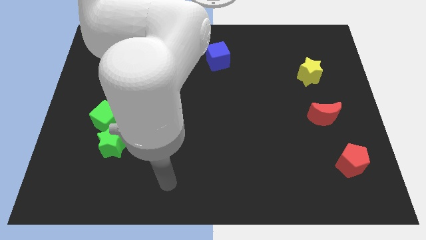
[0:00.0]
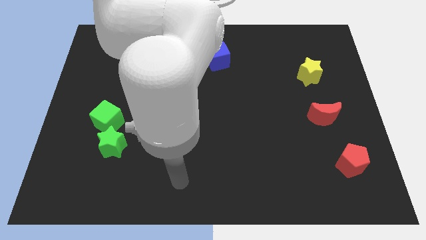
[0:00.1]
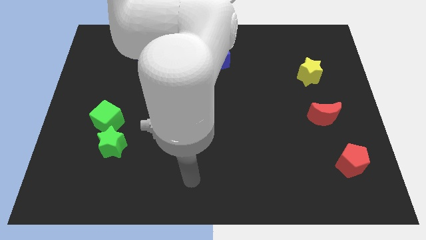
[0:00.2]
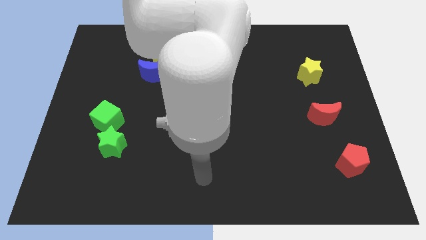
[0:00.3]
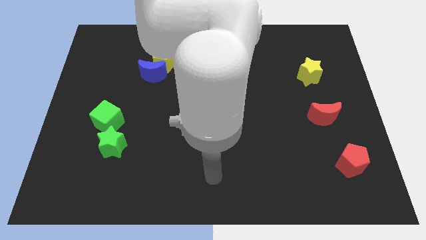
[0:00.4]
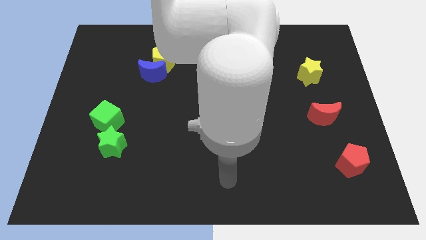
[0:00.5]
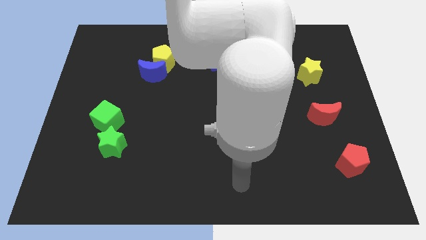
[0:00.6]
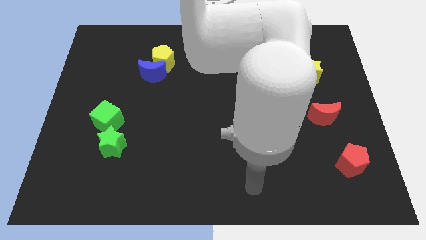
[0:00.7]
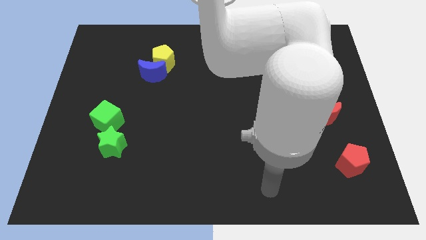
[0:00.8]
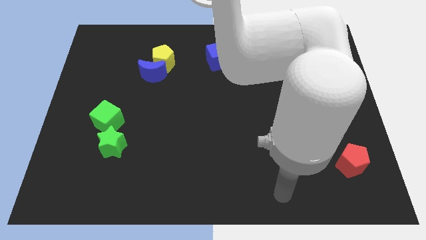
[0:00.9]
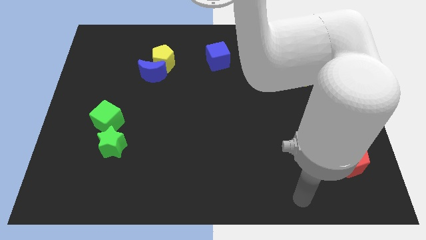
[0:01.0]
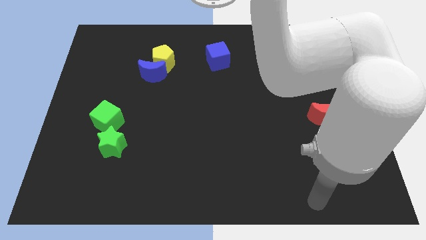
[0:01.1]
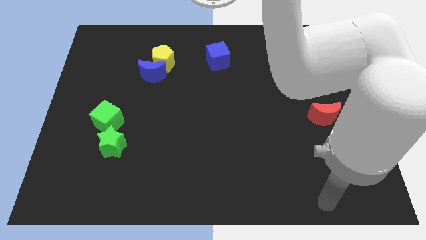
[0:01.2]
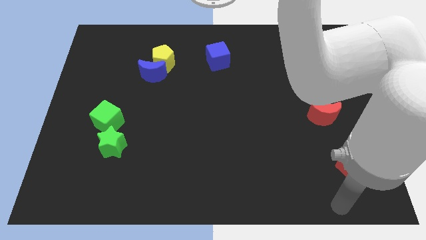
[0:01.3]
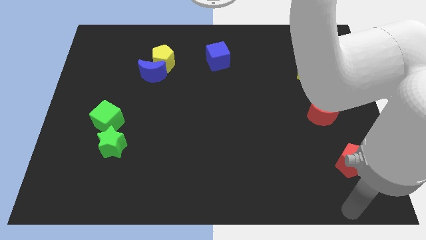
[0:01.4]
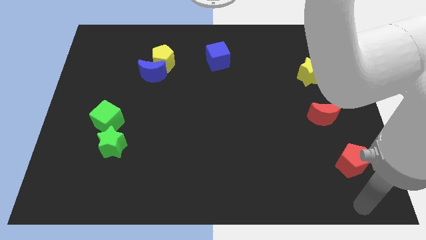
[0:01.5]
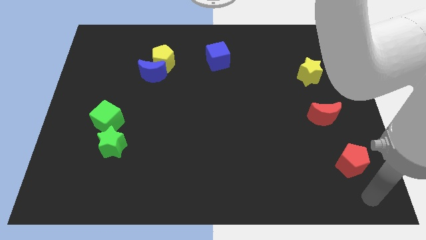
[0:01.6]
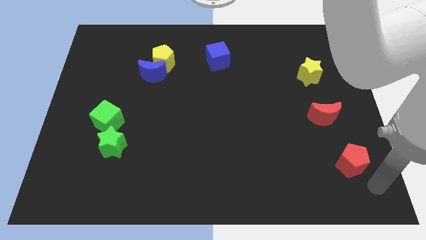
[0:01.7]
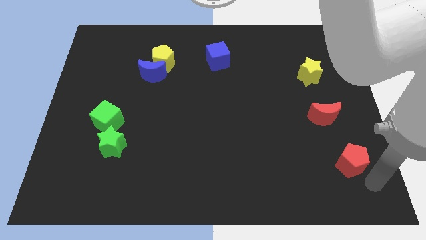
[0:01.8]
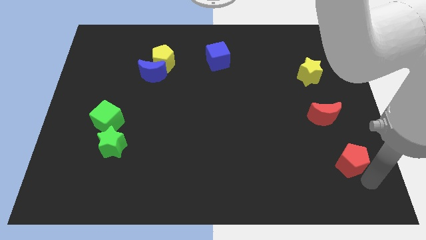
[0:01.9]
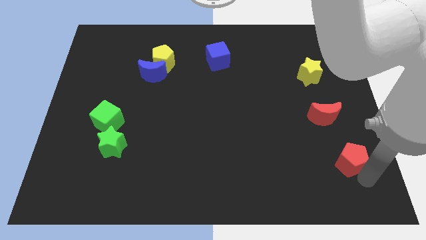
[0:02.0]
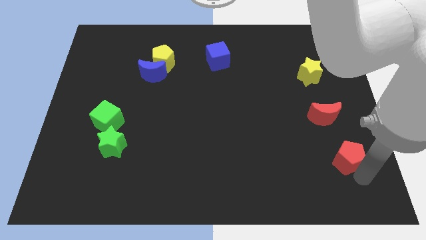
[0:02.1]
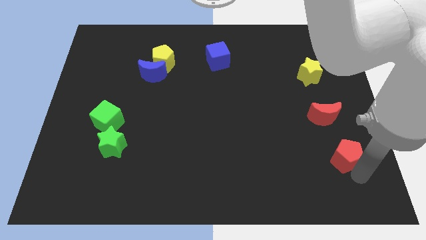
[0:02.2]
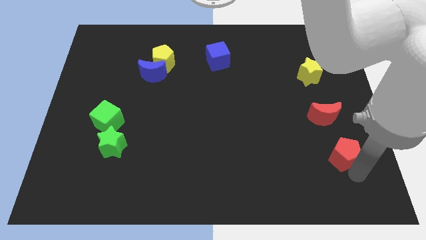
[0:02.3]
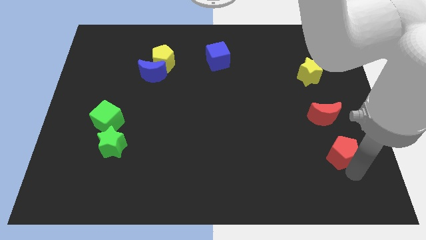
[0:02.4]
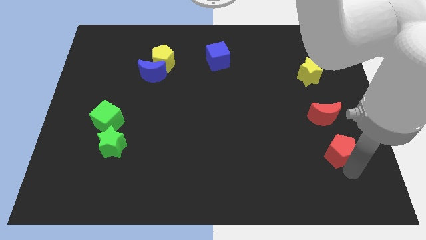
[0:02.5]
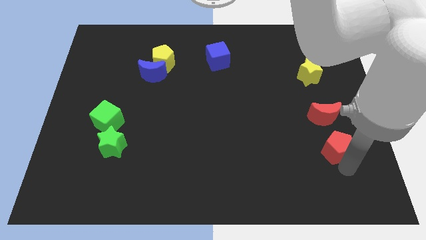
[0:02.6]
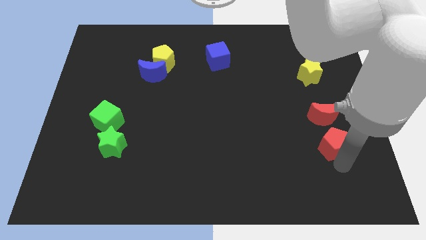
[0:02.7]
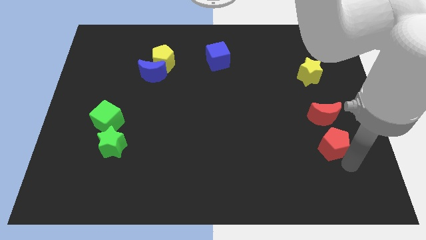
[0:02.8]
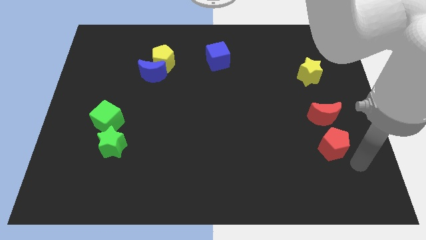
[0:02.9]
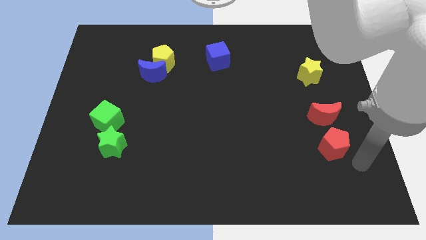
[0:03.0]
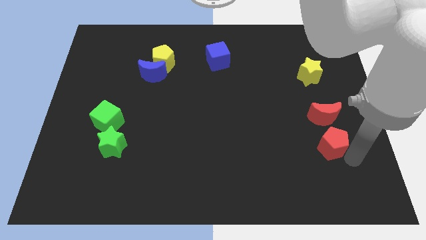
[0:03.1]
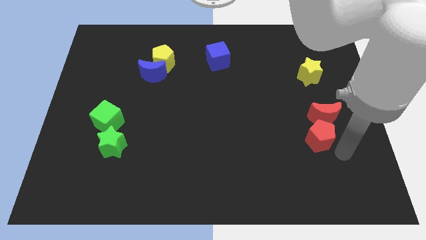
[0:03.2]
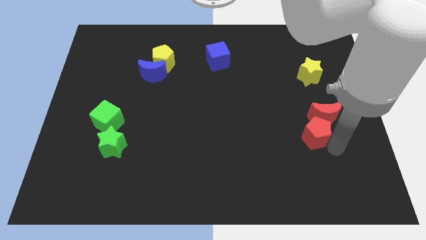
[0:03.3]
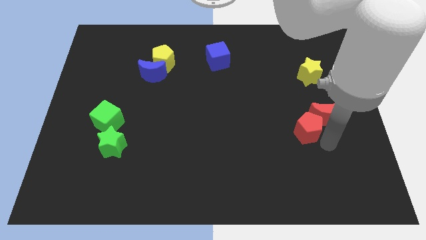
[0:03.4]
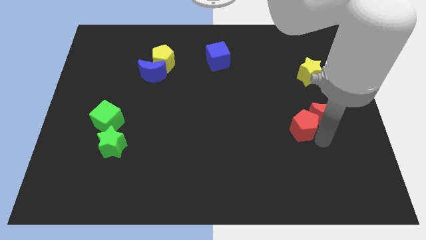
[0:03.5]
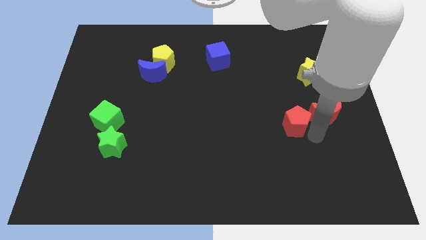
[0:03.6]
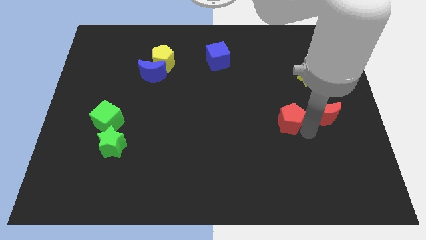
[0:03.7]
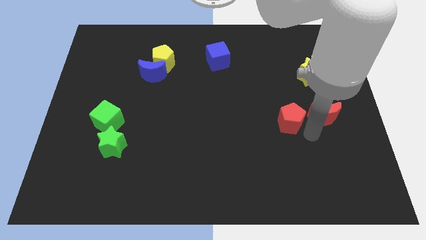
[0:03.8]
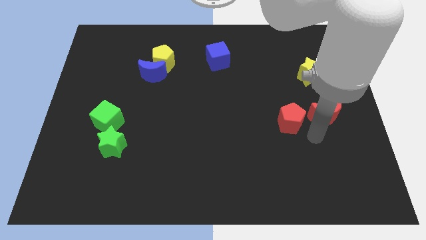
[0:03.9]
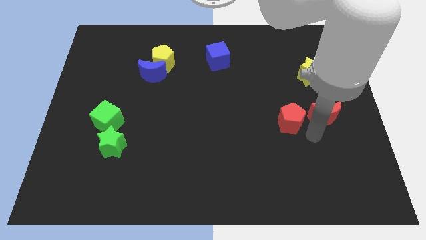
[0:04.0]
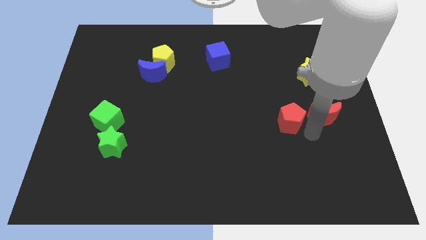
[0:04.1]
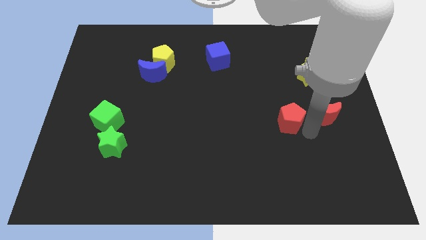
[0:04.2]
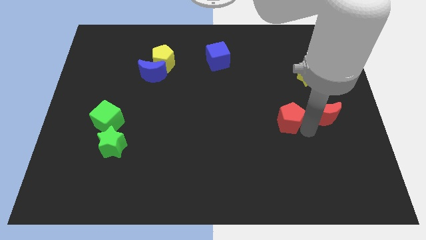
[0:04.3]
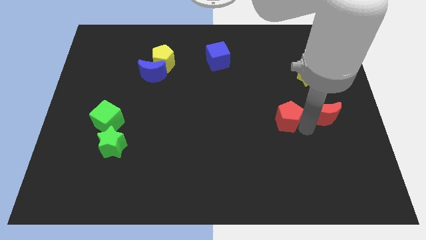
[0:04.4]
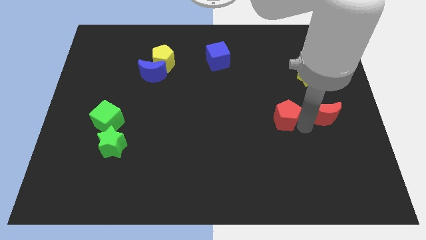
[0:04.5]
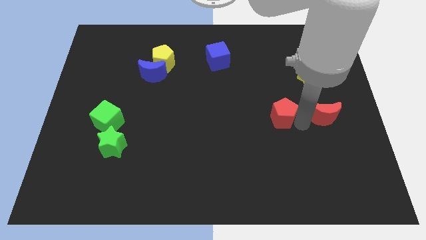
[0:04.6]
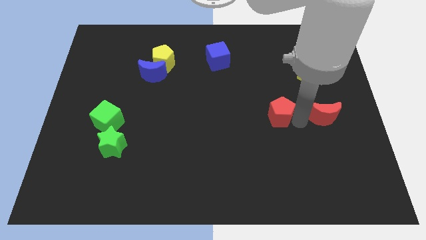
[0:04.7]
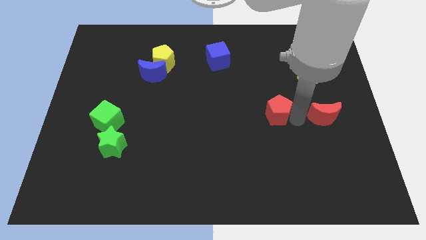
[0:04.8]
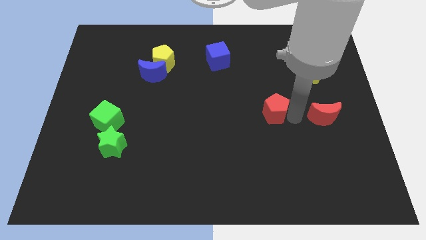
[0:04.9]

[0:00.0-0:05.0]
slide the red pentagon upwards and to the left diagonally

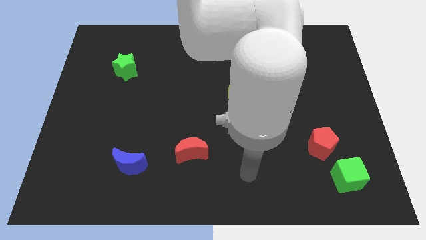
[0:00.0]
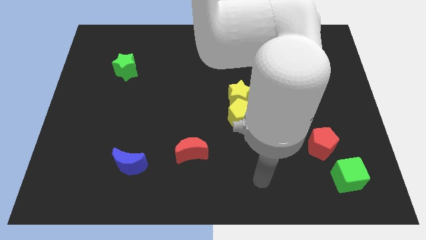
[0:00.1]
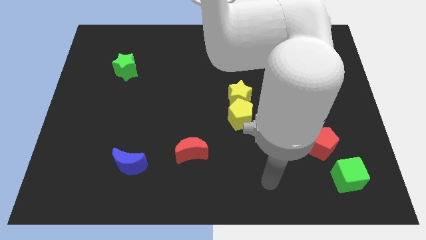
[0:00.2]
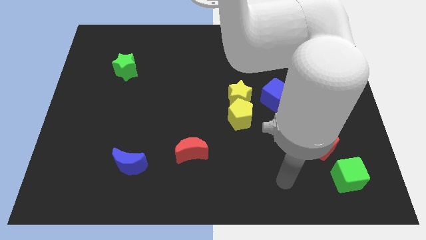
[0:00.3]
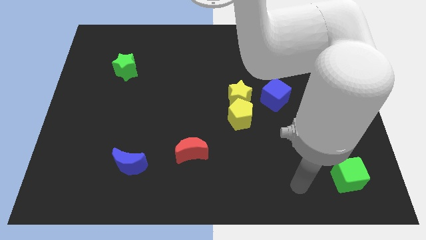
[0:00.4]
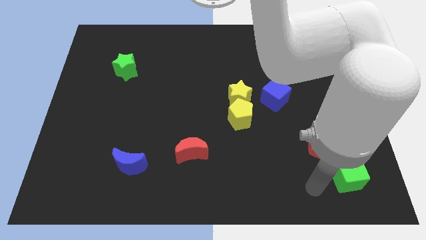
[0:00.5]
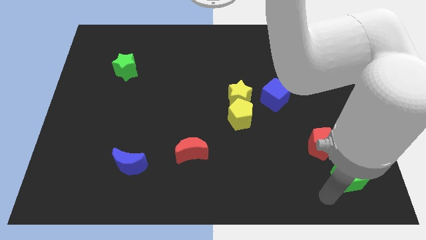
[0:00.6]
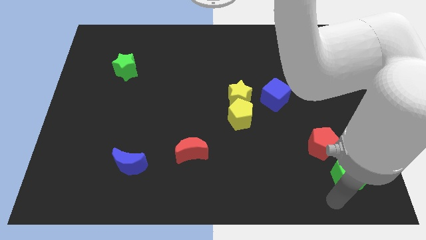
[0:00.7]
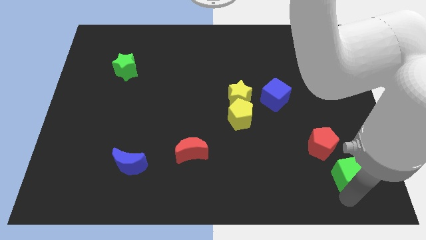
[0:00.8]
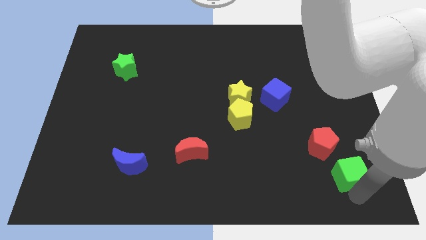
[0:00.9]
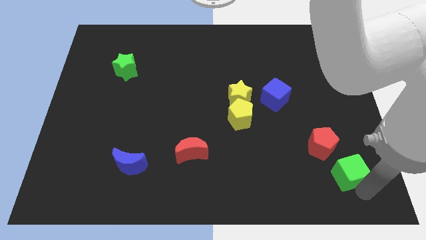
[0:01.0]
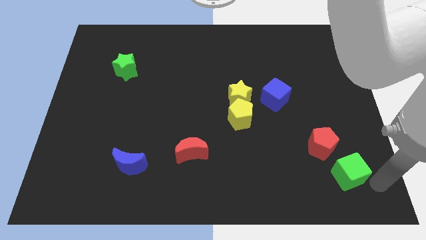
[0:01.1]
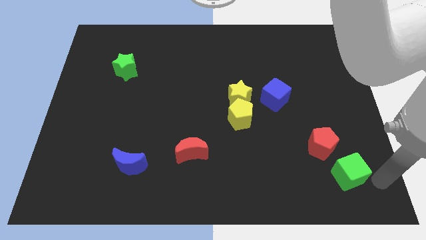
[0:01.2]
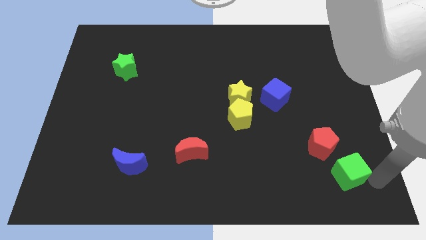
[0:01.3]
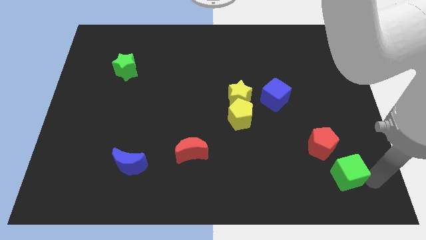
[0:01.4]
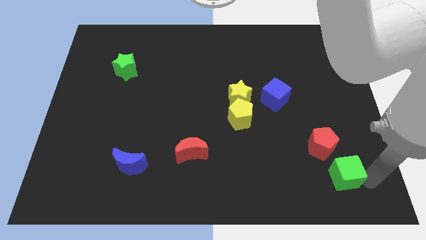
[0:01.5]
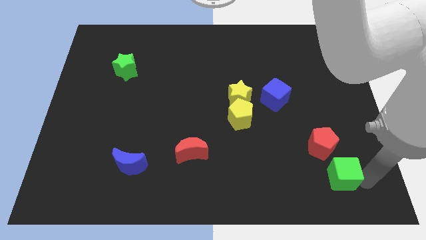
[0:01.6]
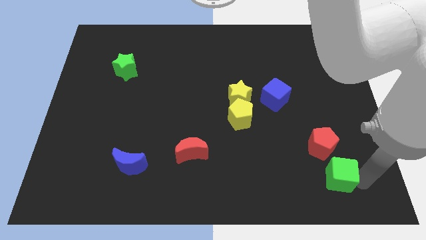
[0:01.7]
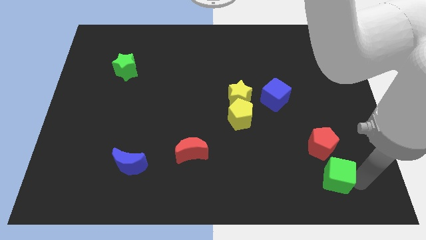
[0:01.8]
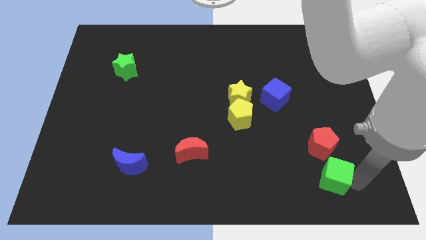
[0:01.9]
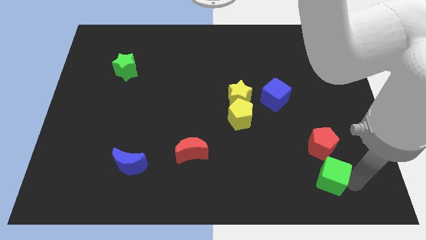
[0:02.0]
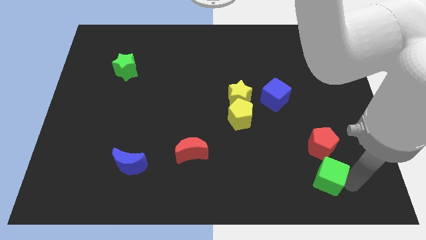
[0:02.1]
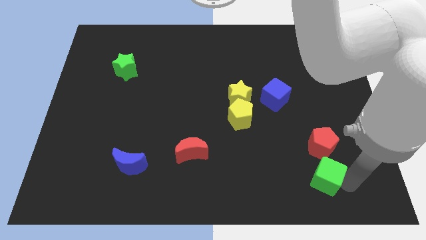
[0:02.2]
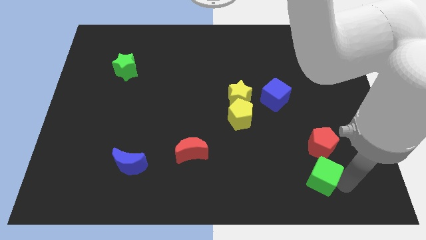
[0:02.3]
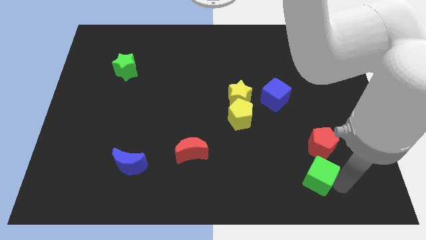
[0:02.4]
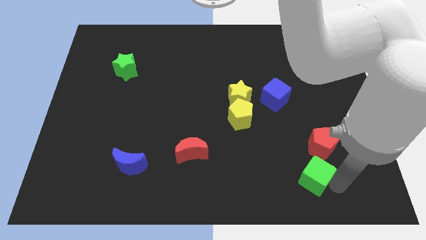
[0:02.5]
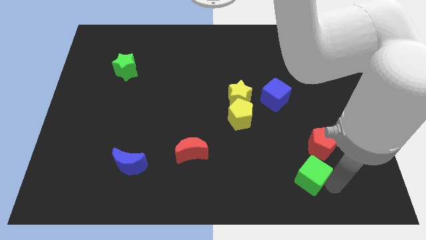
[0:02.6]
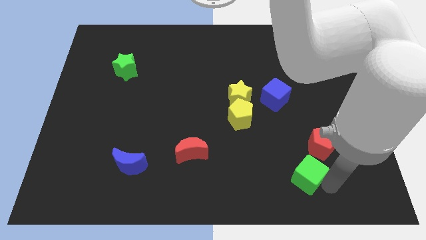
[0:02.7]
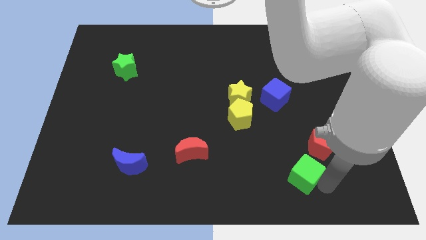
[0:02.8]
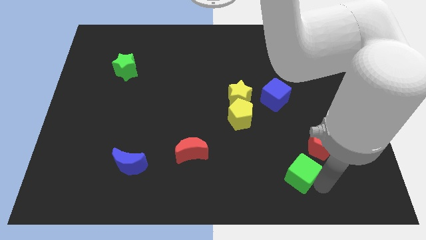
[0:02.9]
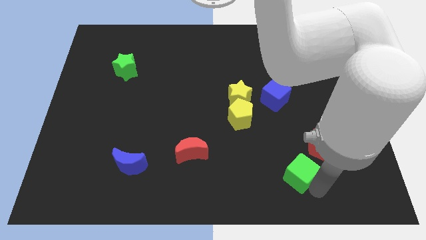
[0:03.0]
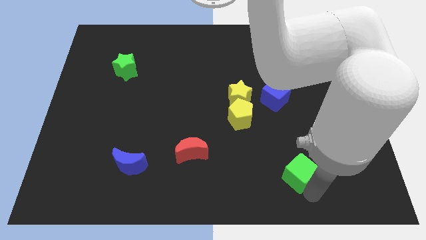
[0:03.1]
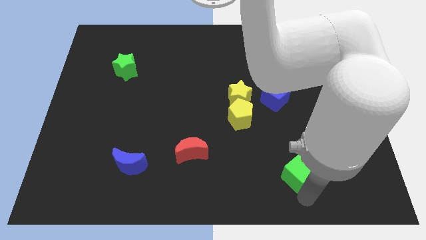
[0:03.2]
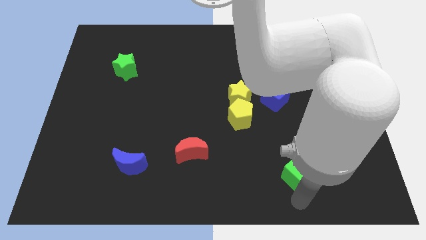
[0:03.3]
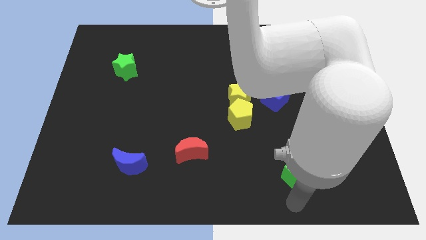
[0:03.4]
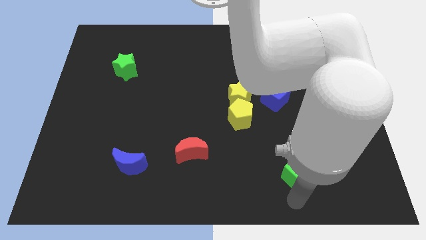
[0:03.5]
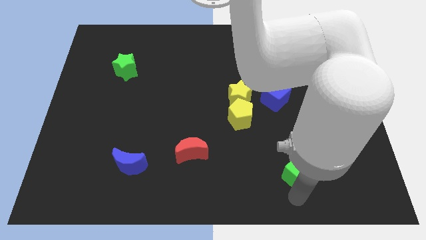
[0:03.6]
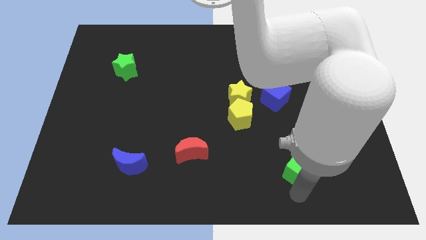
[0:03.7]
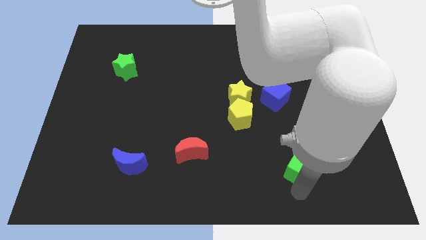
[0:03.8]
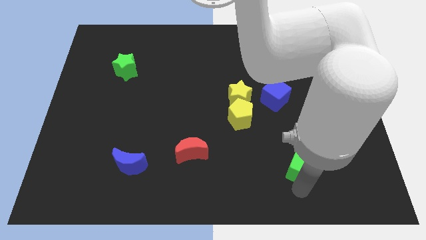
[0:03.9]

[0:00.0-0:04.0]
slightly move the green cube up and to the left
